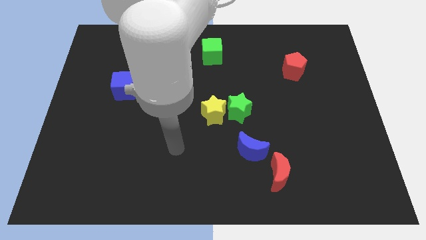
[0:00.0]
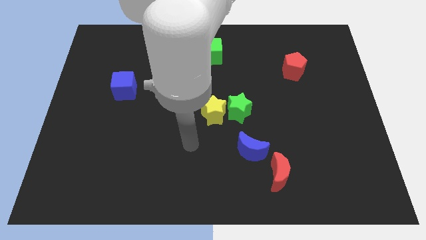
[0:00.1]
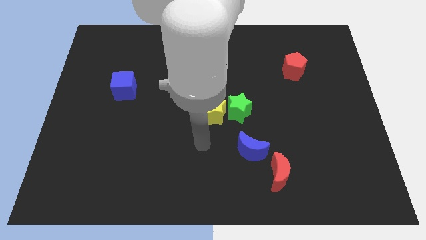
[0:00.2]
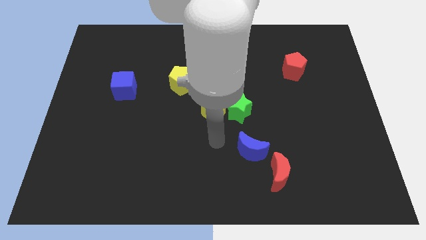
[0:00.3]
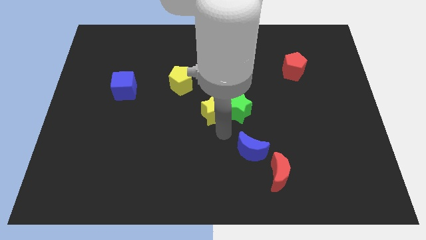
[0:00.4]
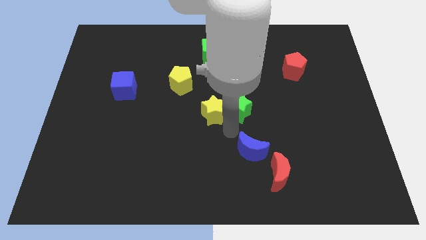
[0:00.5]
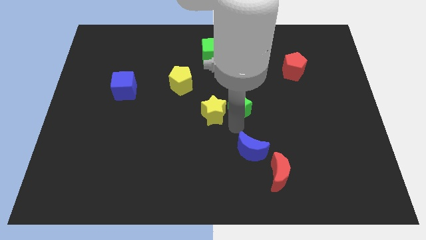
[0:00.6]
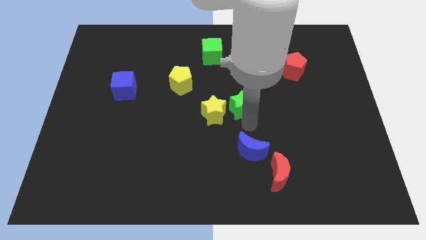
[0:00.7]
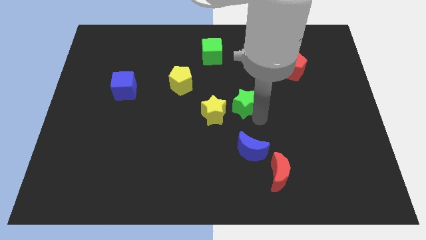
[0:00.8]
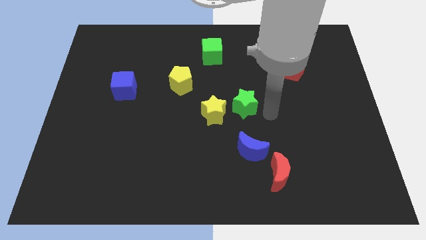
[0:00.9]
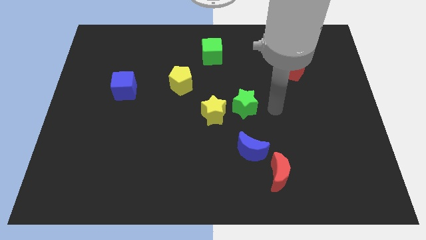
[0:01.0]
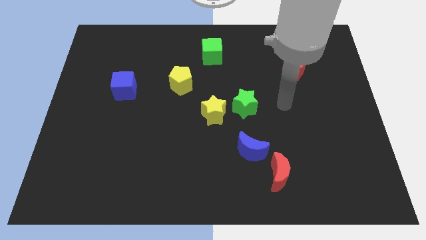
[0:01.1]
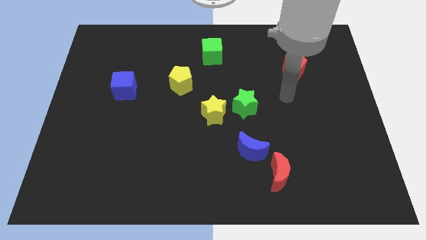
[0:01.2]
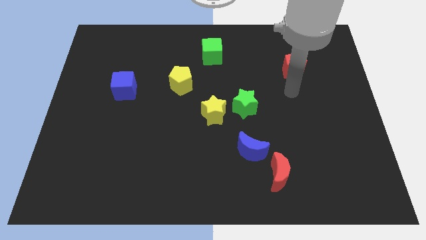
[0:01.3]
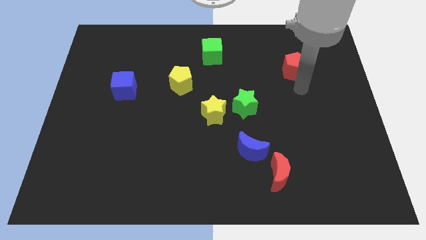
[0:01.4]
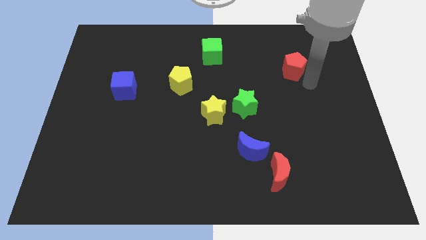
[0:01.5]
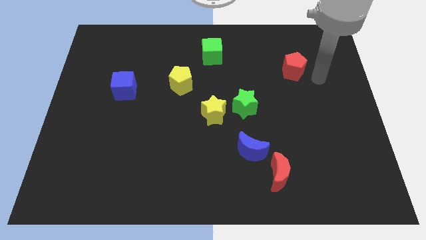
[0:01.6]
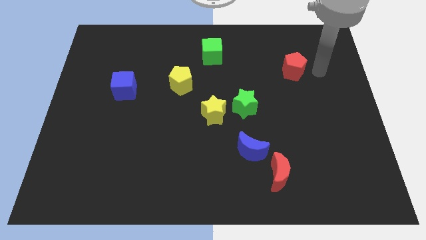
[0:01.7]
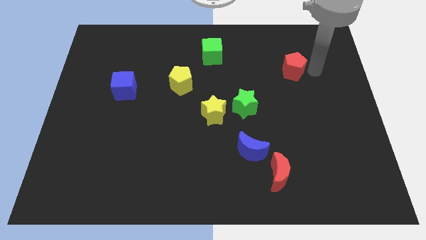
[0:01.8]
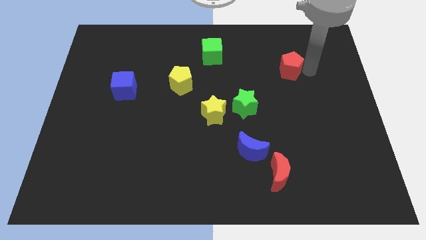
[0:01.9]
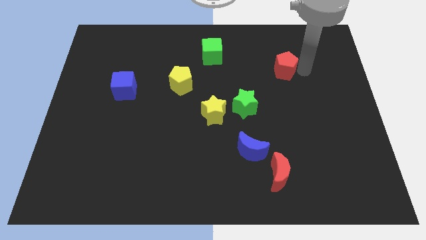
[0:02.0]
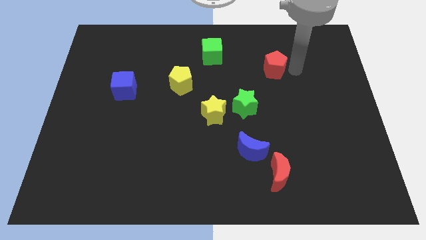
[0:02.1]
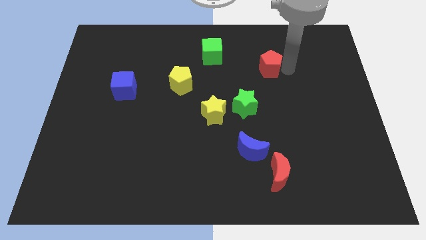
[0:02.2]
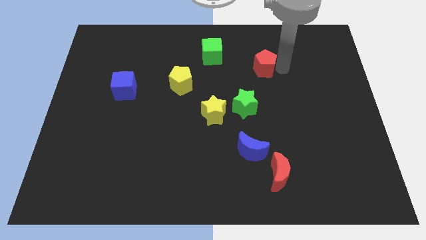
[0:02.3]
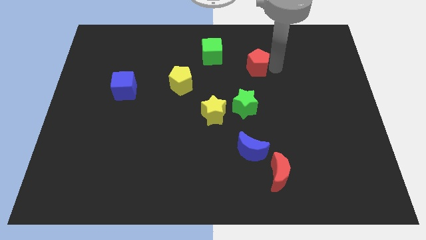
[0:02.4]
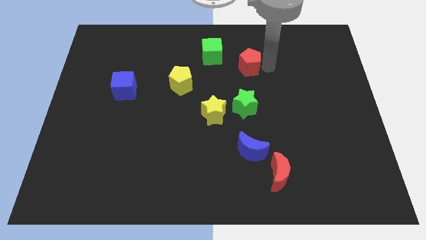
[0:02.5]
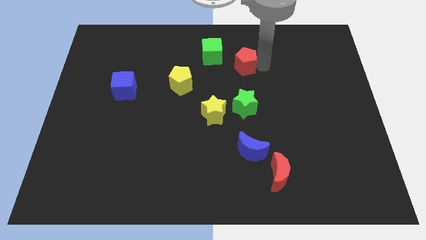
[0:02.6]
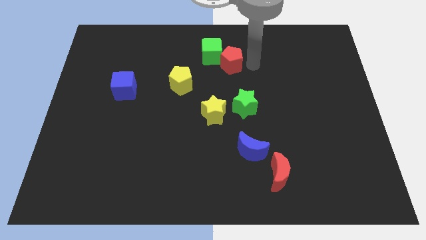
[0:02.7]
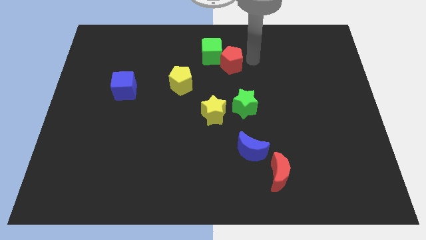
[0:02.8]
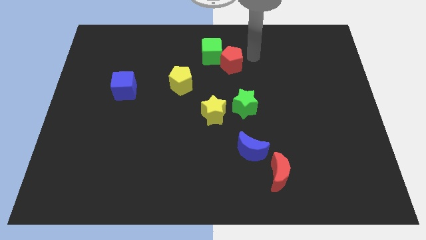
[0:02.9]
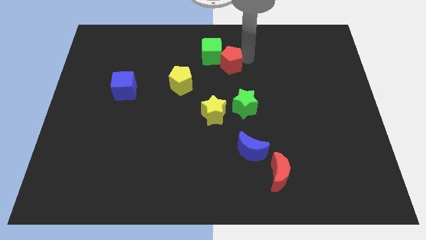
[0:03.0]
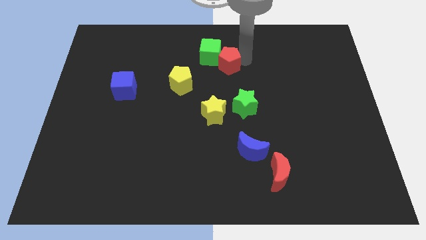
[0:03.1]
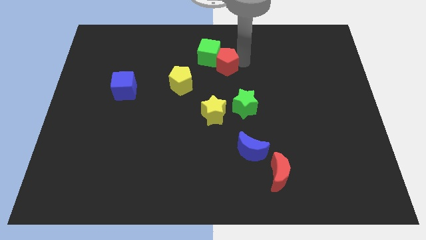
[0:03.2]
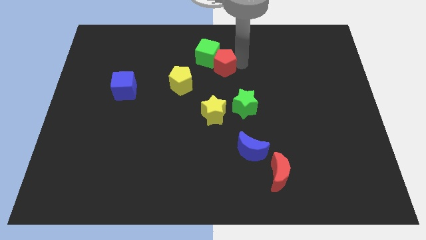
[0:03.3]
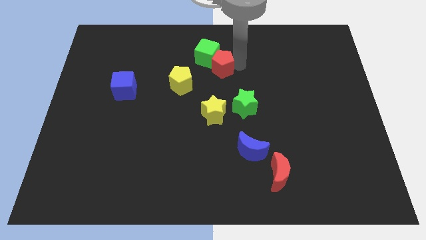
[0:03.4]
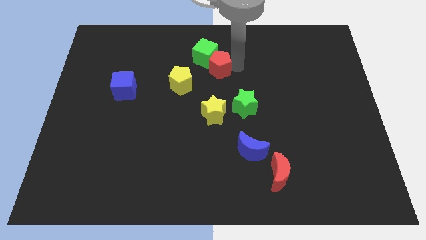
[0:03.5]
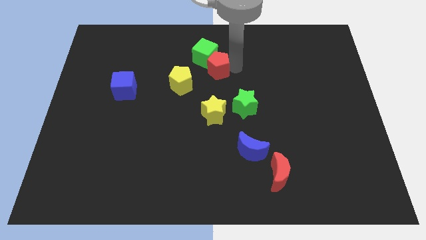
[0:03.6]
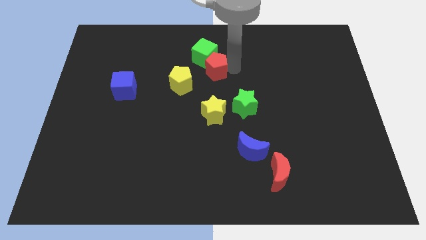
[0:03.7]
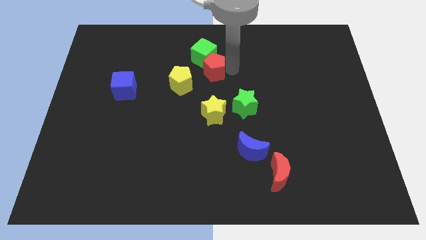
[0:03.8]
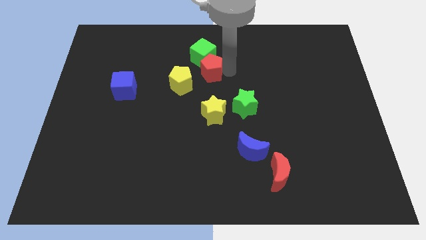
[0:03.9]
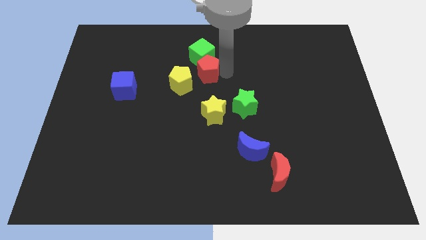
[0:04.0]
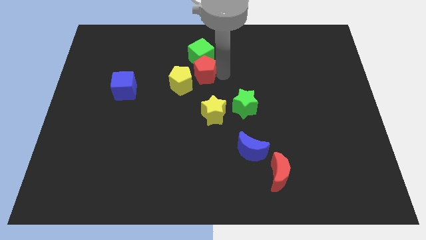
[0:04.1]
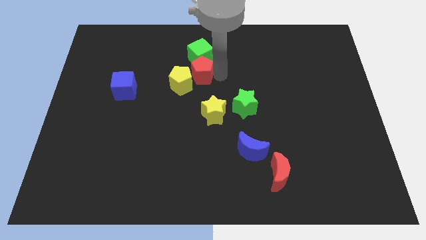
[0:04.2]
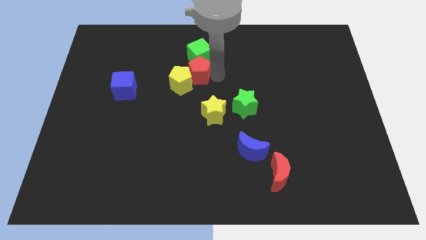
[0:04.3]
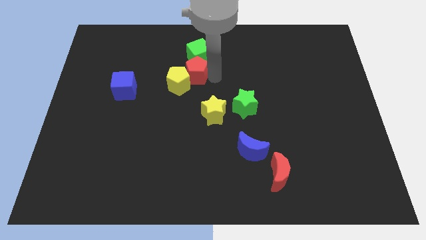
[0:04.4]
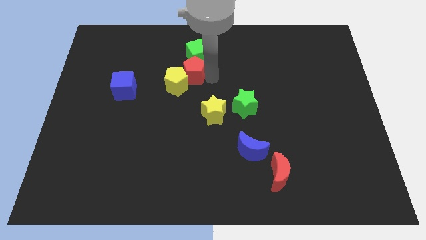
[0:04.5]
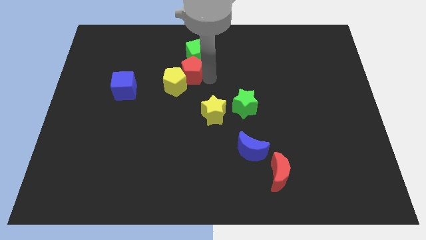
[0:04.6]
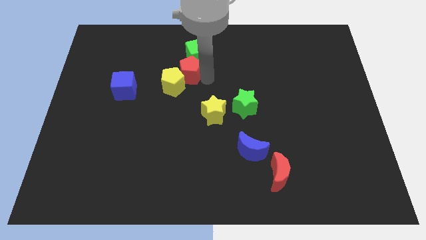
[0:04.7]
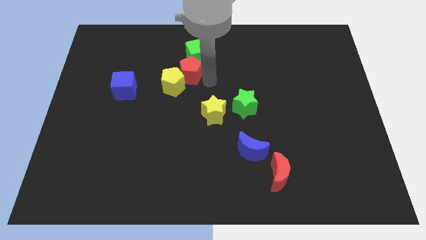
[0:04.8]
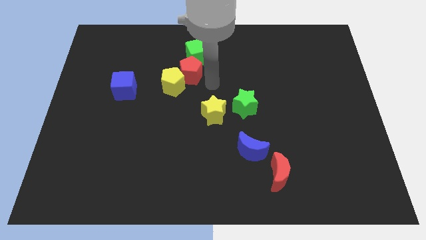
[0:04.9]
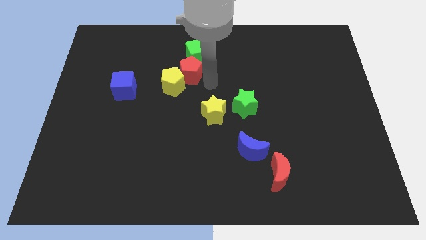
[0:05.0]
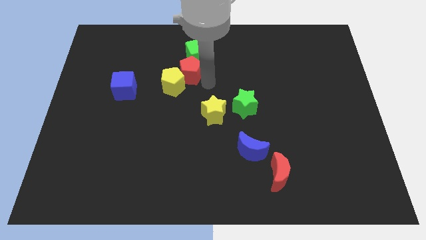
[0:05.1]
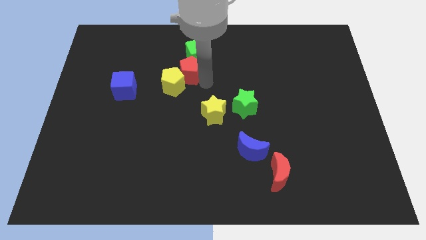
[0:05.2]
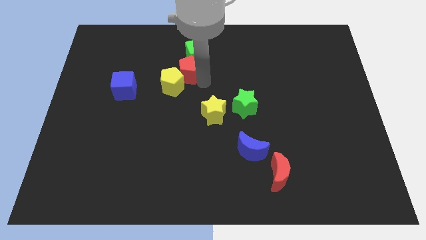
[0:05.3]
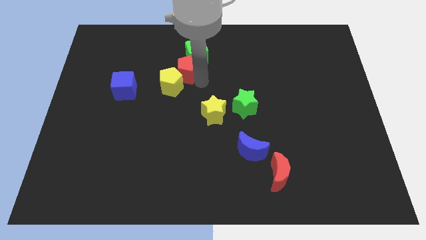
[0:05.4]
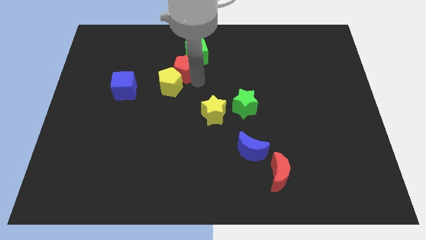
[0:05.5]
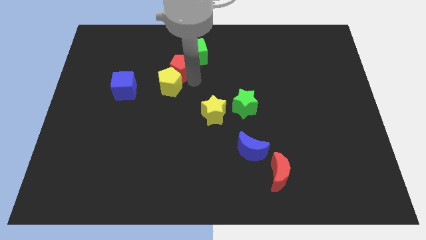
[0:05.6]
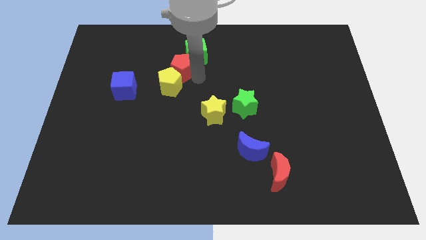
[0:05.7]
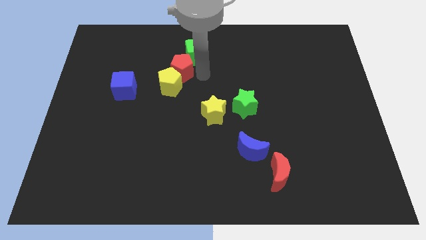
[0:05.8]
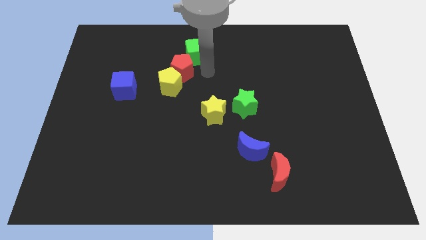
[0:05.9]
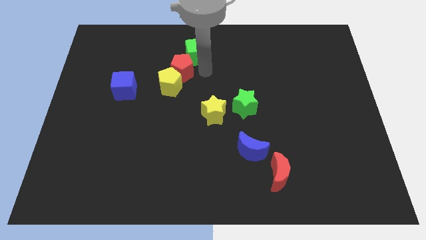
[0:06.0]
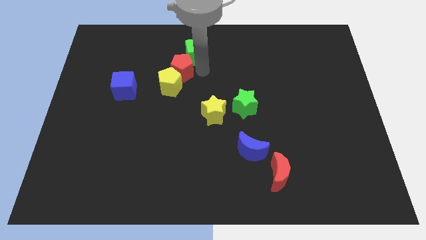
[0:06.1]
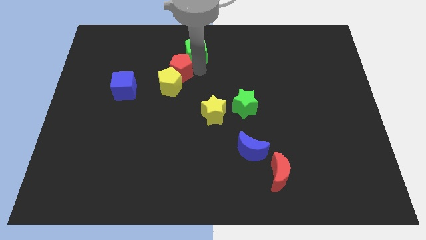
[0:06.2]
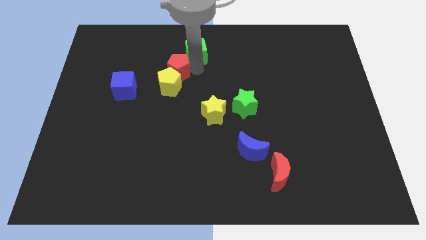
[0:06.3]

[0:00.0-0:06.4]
slide the red pentagon to the top left side of the yellow pentagon

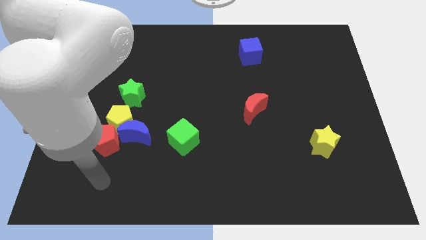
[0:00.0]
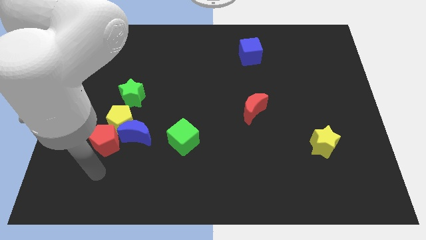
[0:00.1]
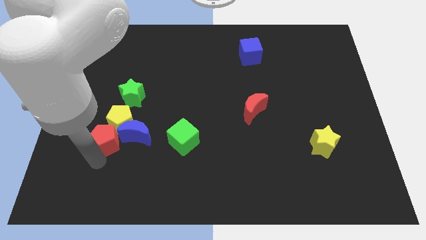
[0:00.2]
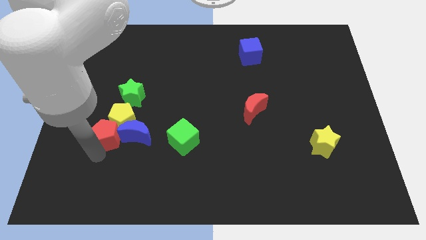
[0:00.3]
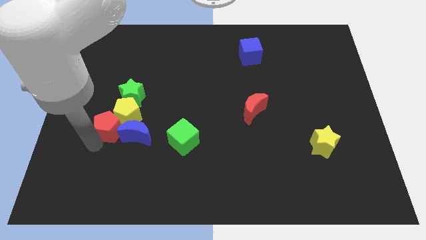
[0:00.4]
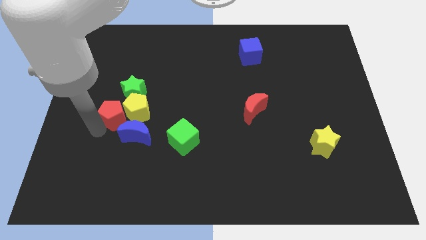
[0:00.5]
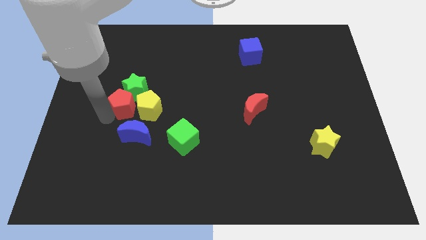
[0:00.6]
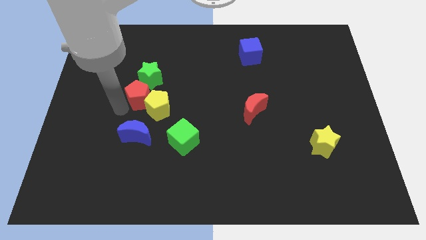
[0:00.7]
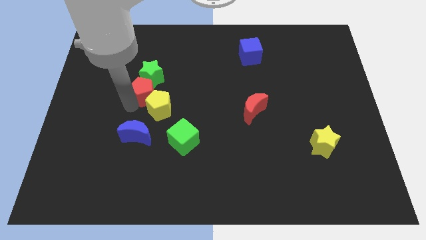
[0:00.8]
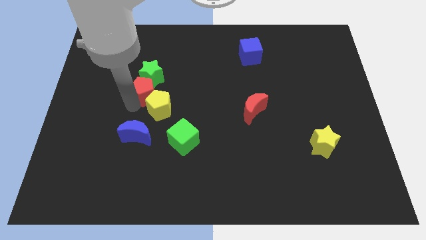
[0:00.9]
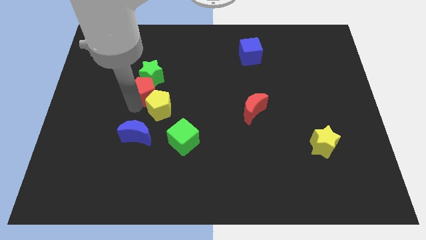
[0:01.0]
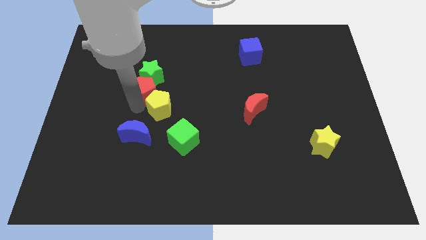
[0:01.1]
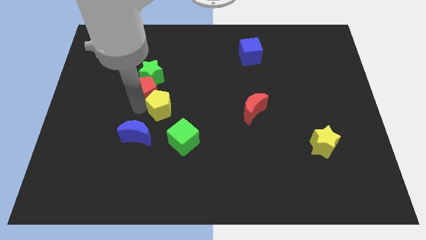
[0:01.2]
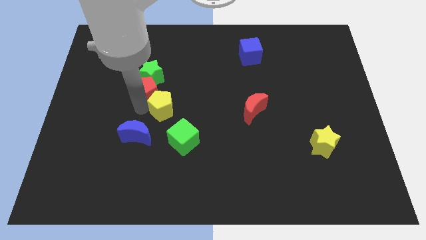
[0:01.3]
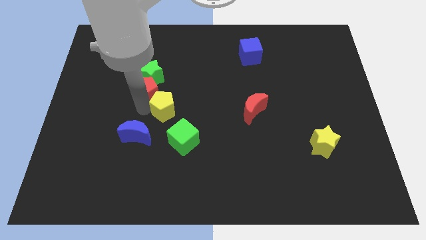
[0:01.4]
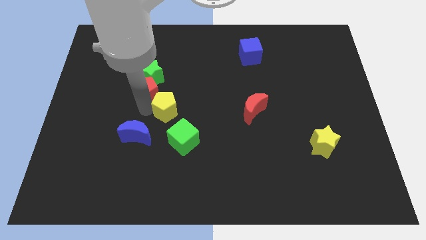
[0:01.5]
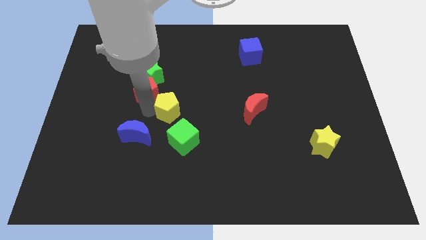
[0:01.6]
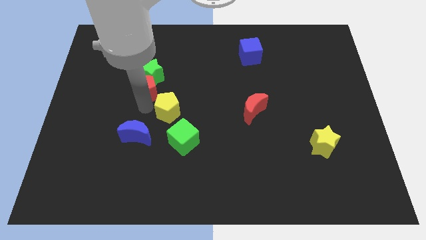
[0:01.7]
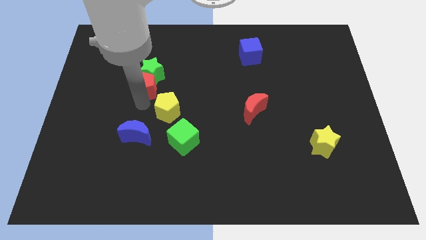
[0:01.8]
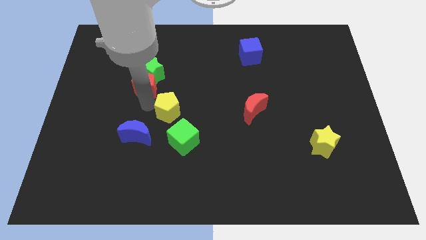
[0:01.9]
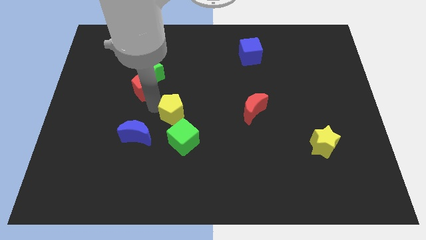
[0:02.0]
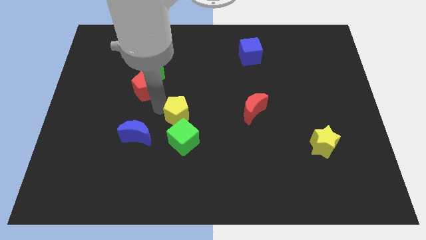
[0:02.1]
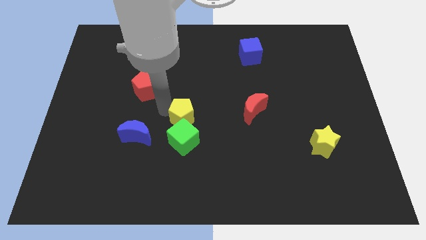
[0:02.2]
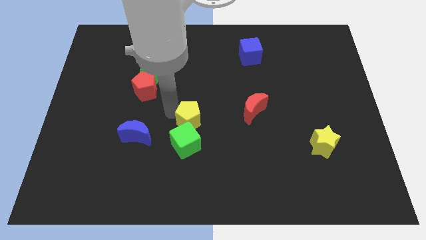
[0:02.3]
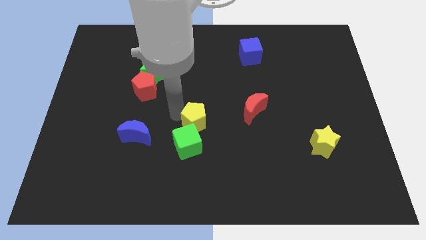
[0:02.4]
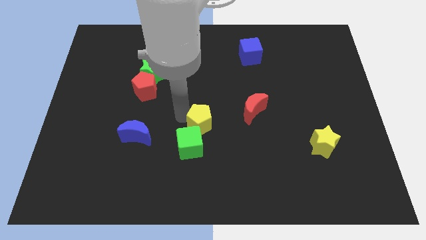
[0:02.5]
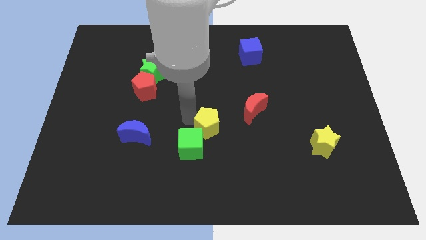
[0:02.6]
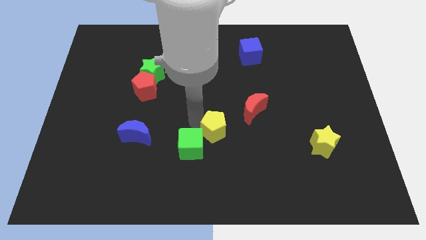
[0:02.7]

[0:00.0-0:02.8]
put the yellow pentagon to the bottom left of the red moon
